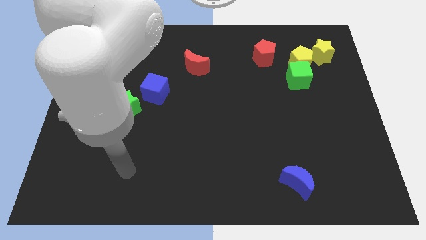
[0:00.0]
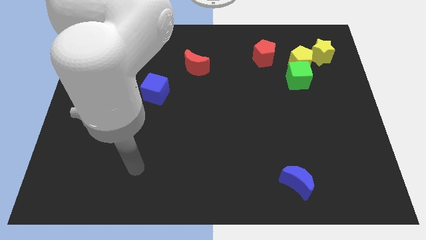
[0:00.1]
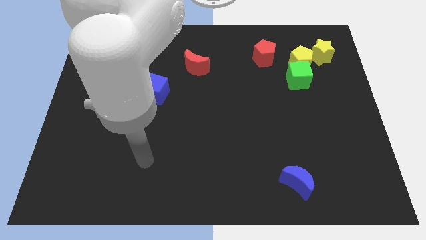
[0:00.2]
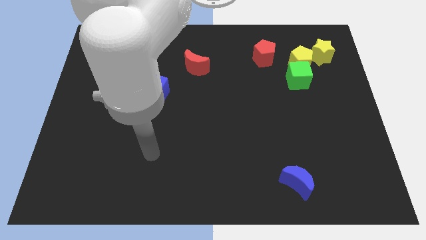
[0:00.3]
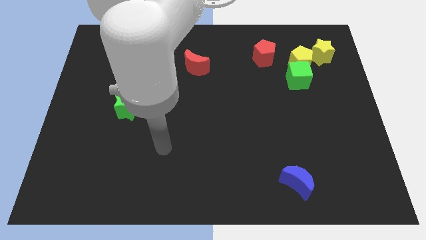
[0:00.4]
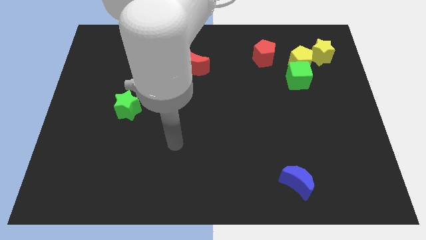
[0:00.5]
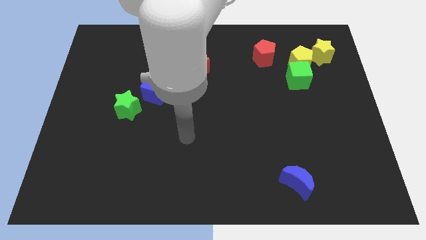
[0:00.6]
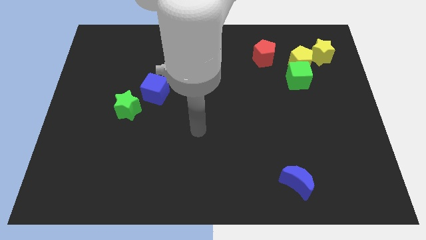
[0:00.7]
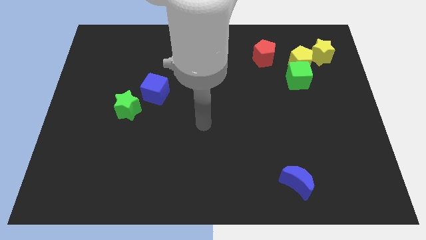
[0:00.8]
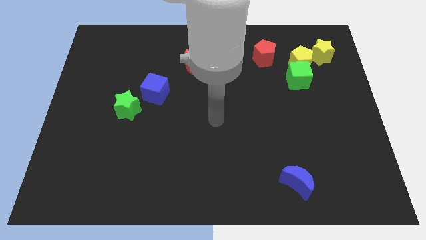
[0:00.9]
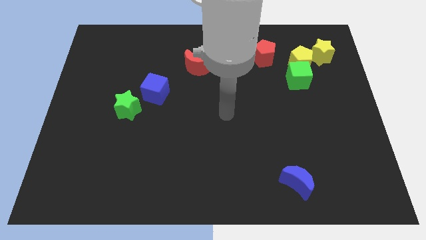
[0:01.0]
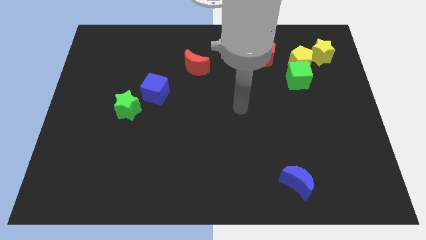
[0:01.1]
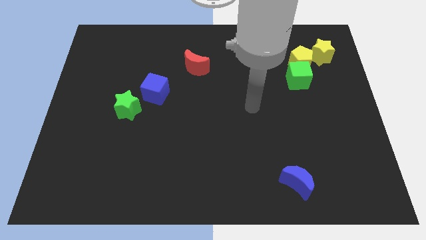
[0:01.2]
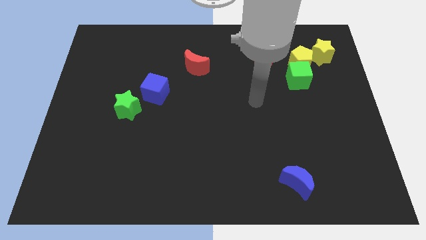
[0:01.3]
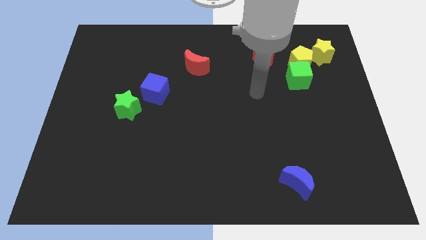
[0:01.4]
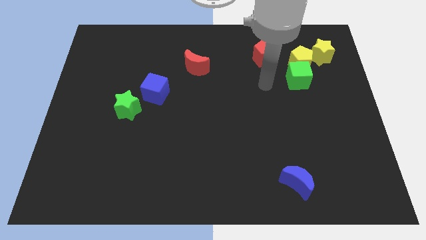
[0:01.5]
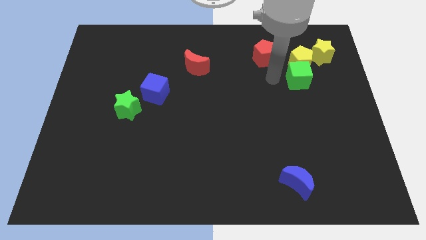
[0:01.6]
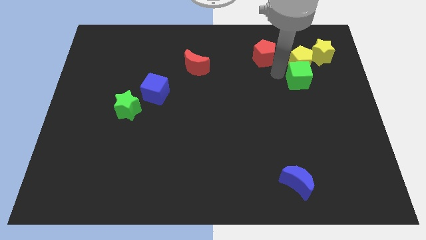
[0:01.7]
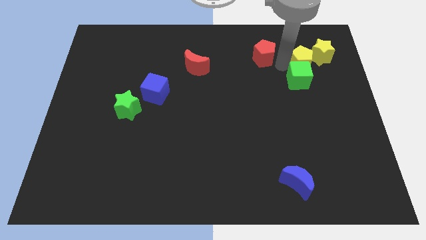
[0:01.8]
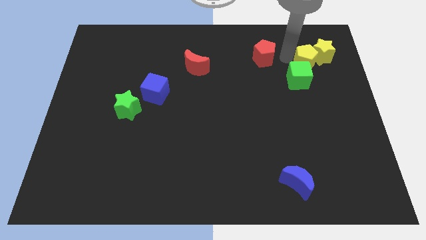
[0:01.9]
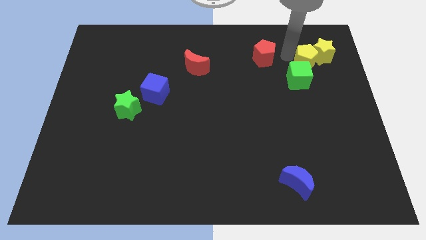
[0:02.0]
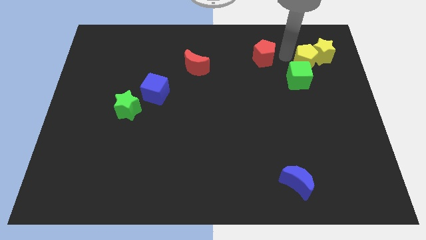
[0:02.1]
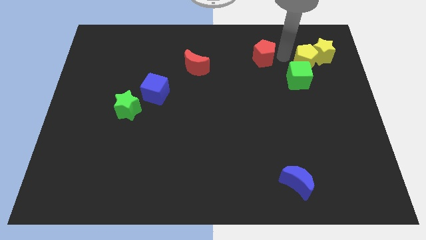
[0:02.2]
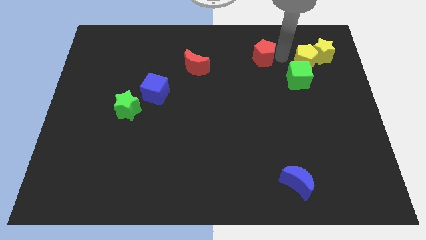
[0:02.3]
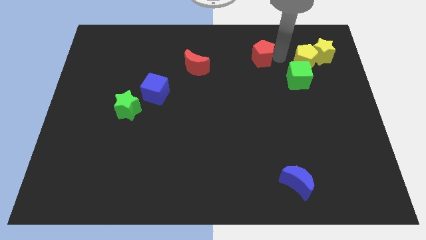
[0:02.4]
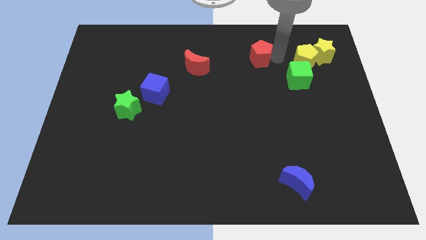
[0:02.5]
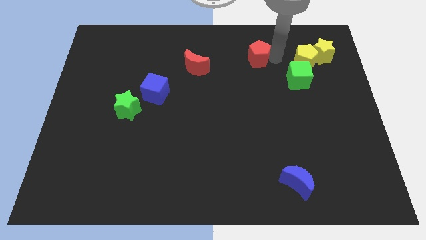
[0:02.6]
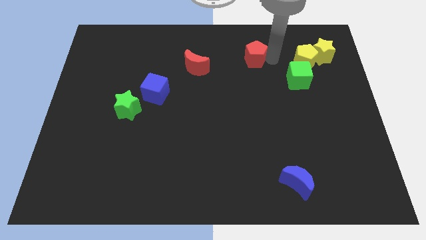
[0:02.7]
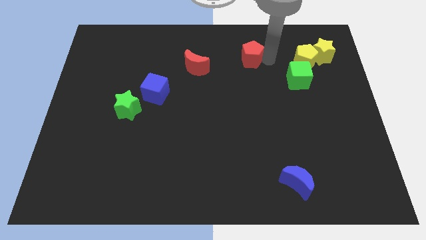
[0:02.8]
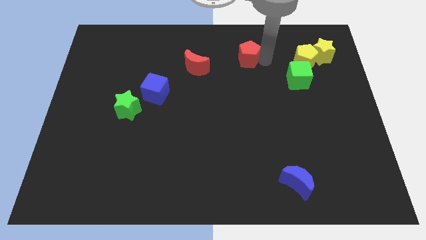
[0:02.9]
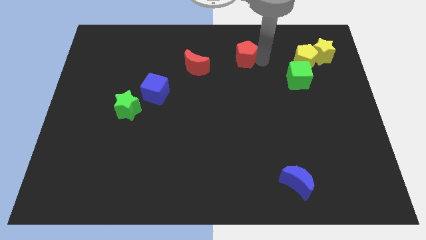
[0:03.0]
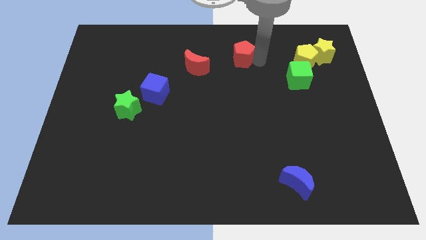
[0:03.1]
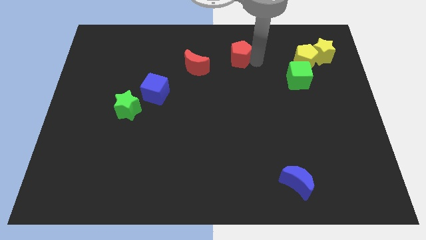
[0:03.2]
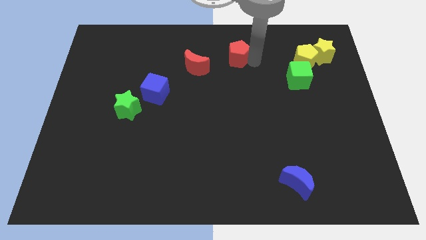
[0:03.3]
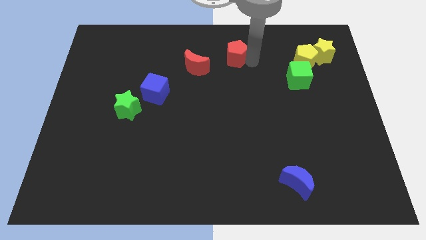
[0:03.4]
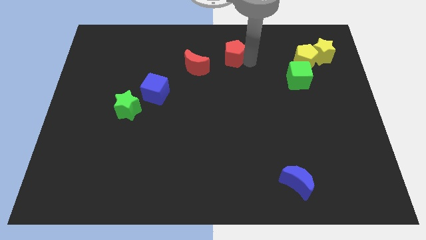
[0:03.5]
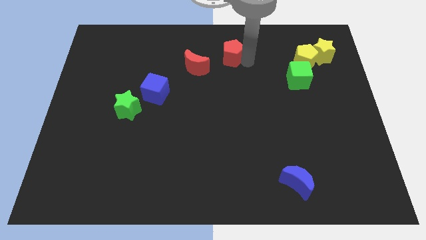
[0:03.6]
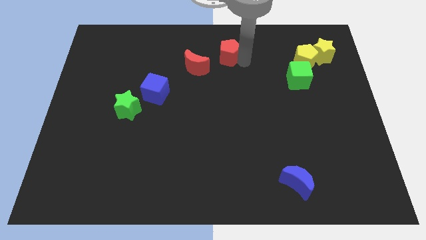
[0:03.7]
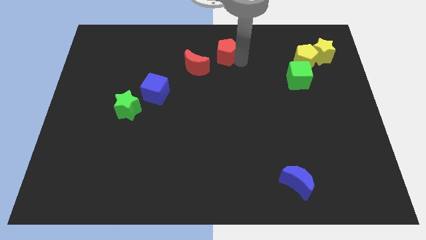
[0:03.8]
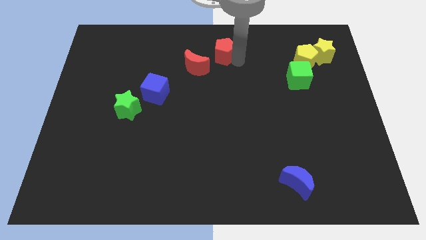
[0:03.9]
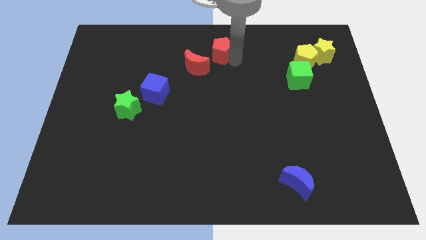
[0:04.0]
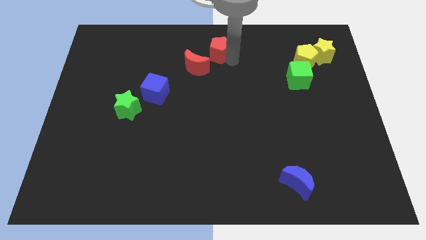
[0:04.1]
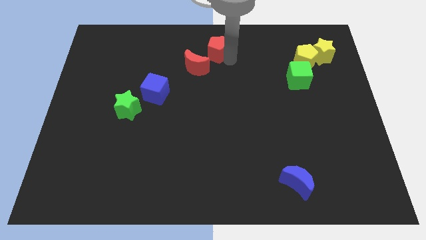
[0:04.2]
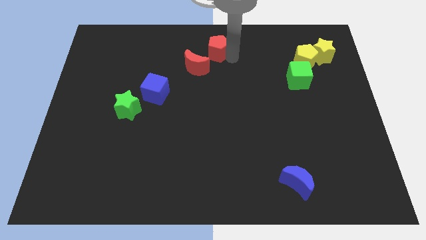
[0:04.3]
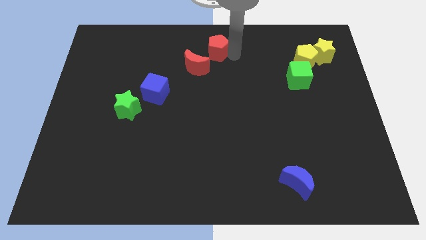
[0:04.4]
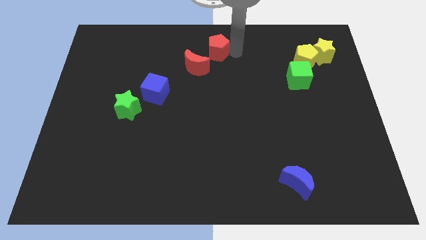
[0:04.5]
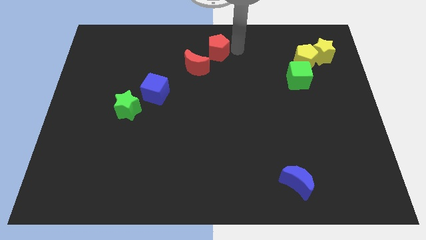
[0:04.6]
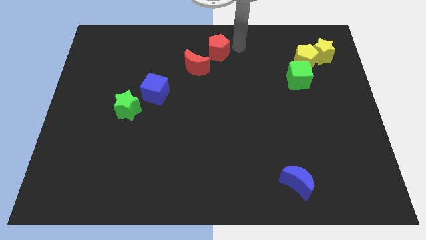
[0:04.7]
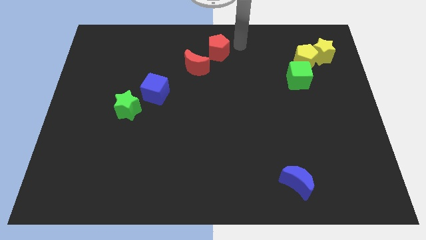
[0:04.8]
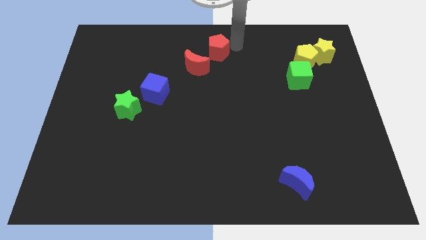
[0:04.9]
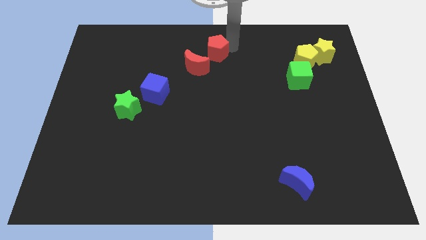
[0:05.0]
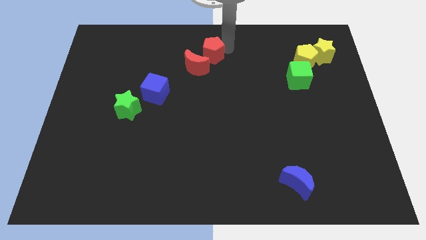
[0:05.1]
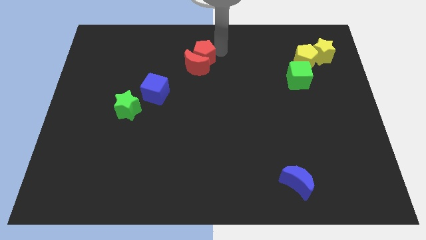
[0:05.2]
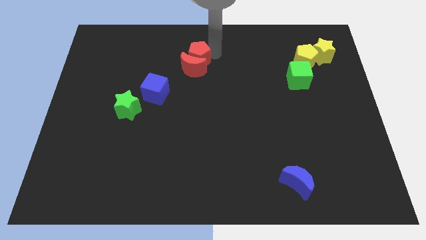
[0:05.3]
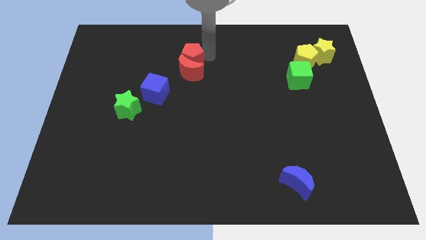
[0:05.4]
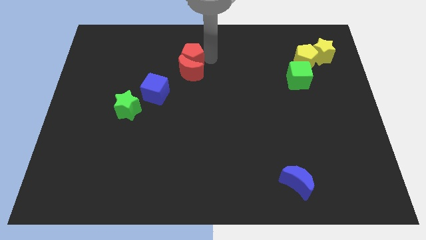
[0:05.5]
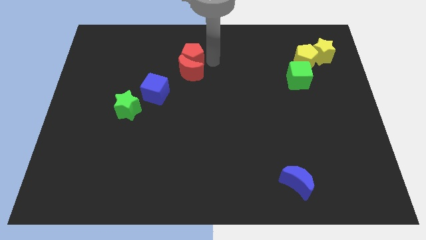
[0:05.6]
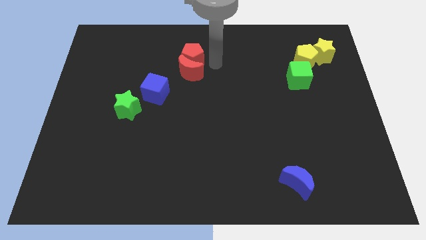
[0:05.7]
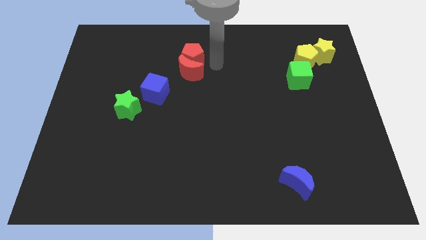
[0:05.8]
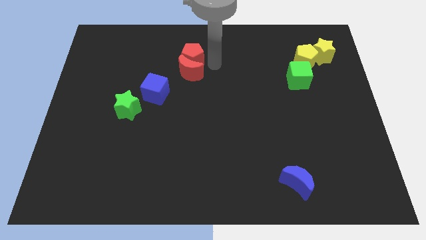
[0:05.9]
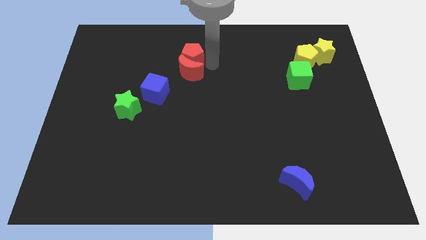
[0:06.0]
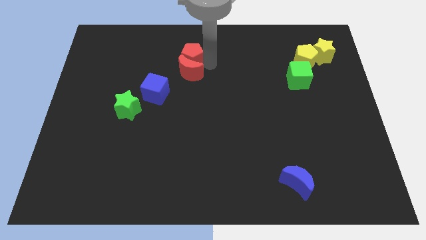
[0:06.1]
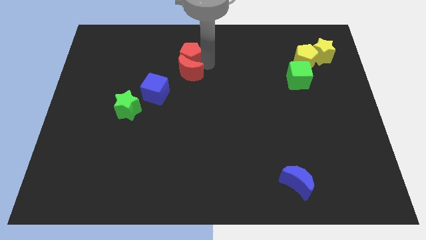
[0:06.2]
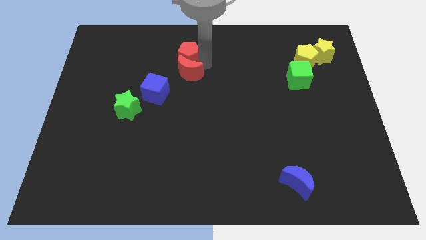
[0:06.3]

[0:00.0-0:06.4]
move the red pentagon to the left

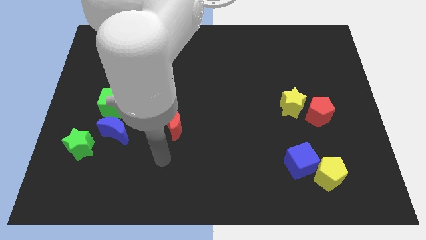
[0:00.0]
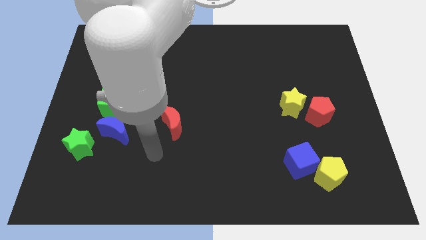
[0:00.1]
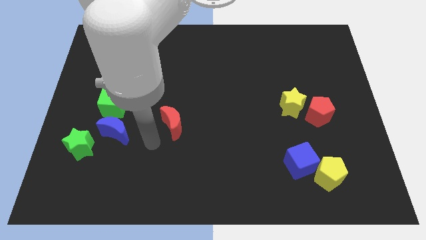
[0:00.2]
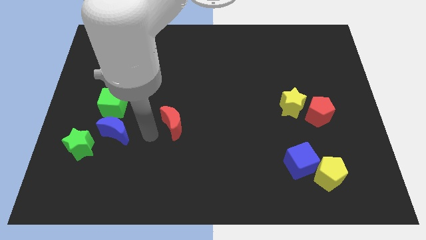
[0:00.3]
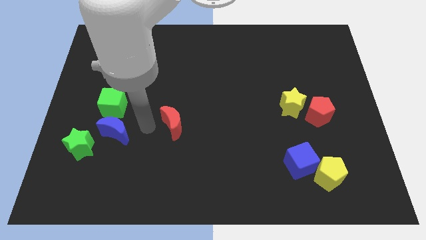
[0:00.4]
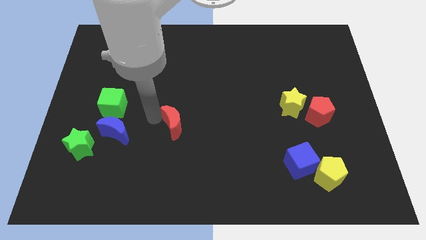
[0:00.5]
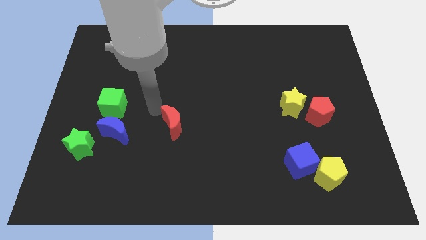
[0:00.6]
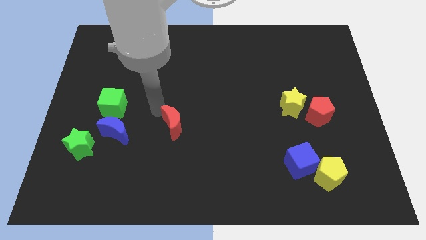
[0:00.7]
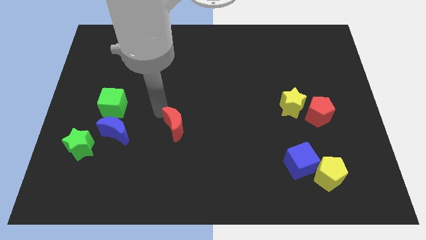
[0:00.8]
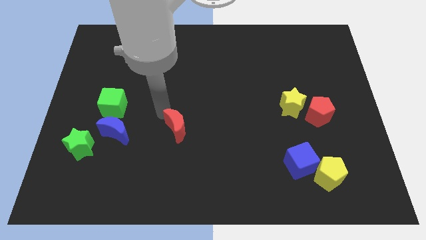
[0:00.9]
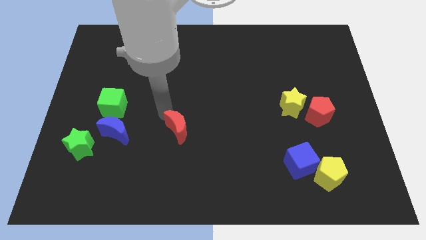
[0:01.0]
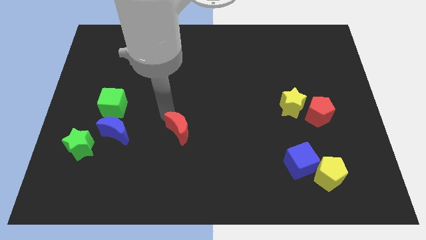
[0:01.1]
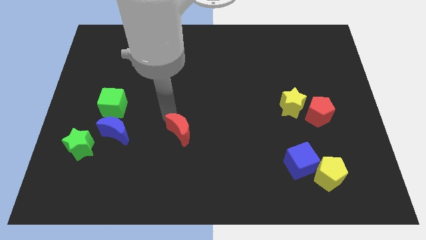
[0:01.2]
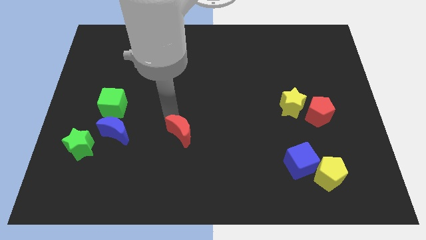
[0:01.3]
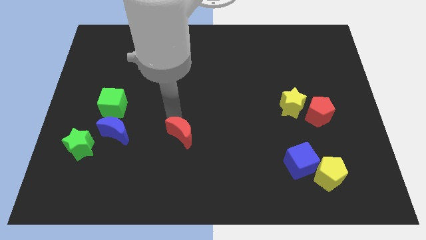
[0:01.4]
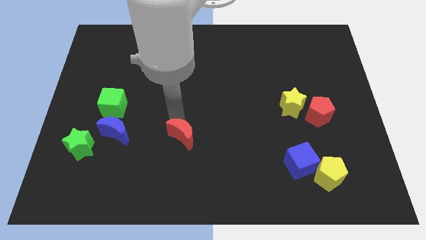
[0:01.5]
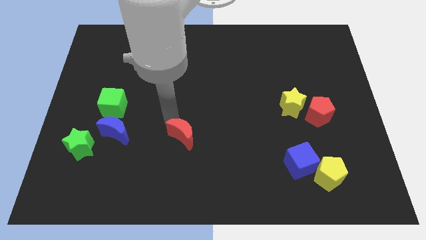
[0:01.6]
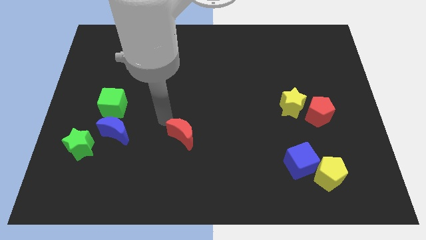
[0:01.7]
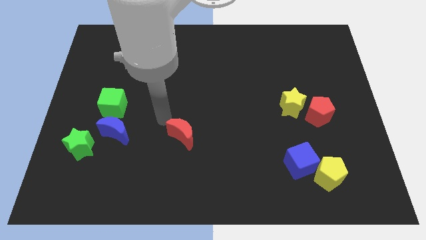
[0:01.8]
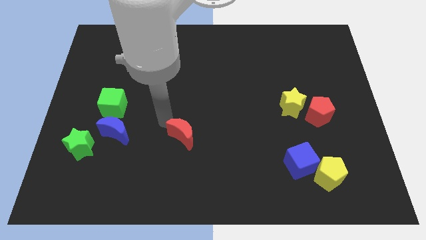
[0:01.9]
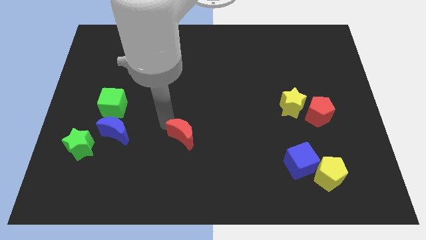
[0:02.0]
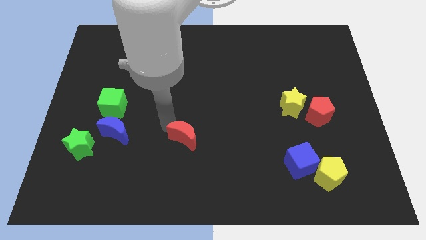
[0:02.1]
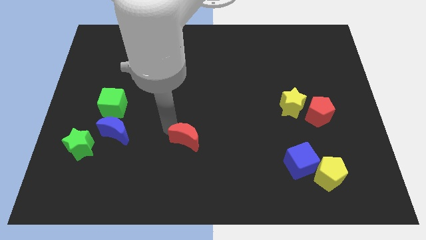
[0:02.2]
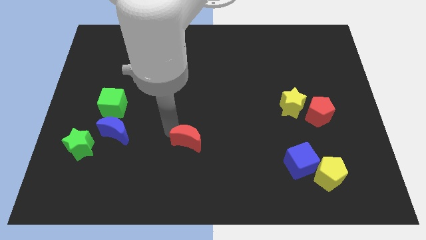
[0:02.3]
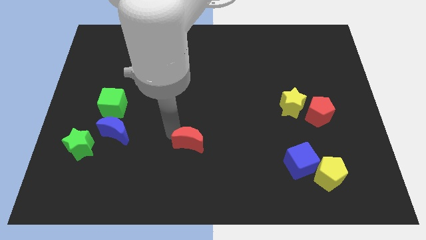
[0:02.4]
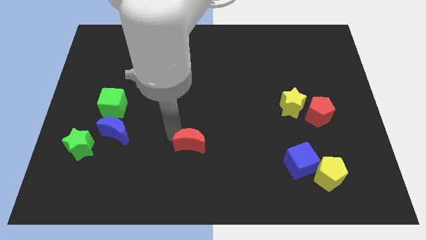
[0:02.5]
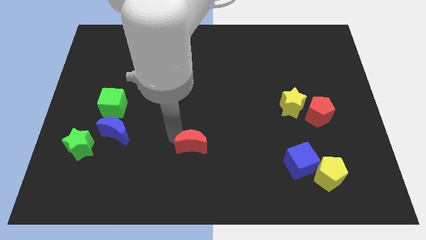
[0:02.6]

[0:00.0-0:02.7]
push the red moon a bit downwards and right diagonally
